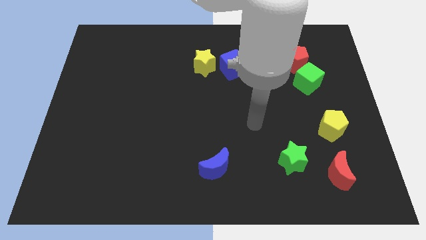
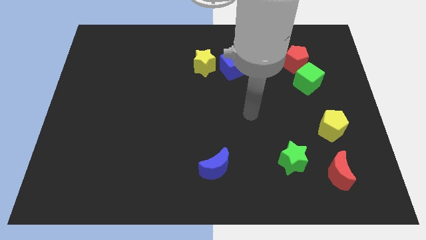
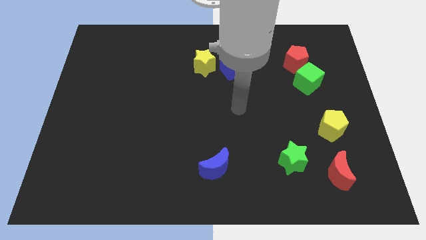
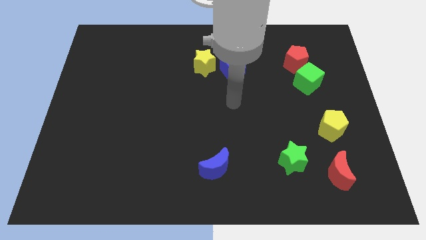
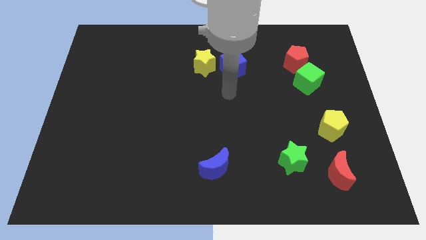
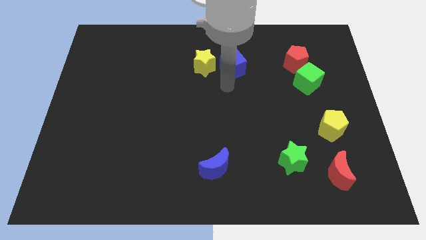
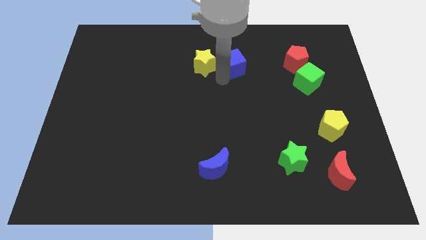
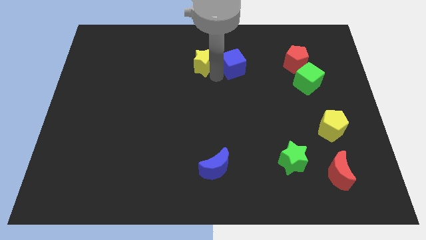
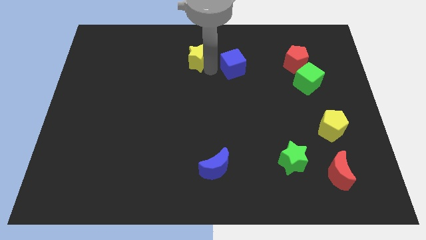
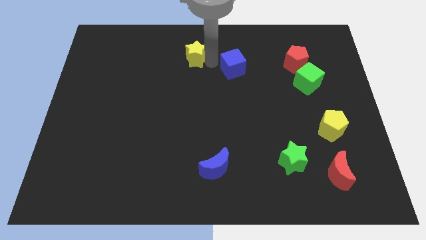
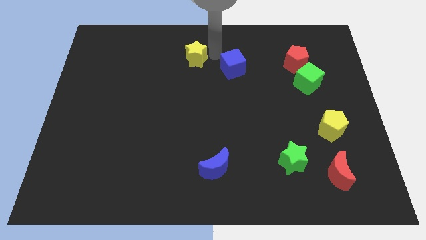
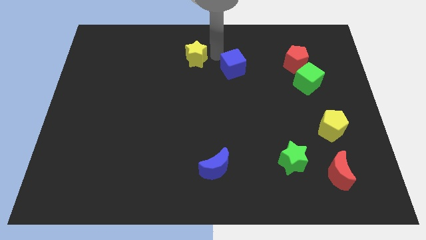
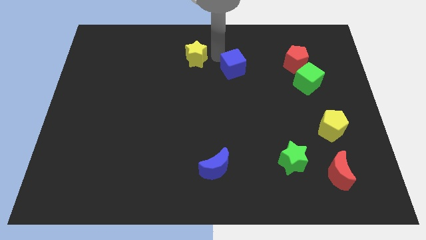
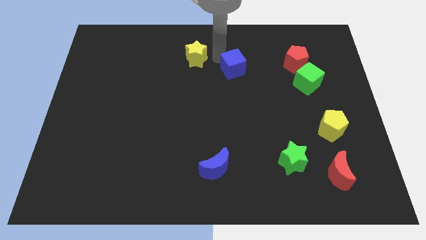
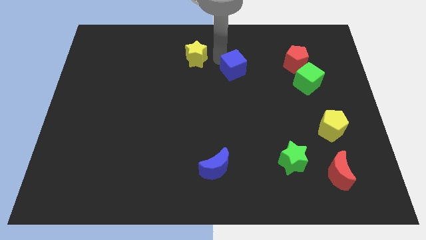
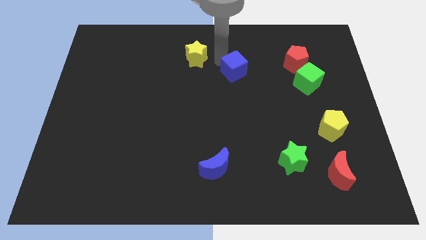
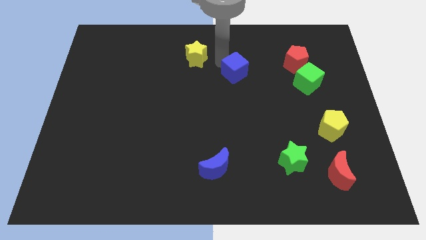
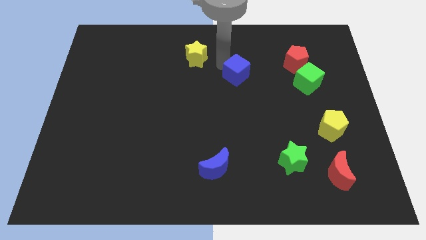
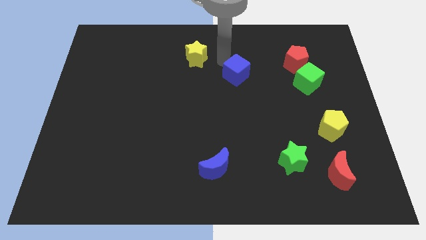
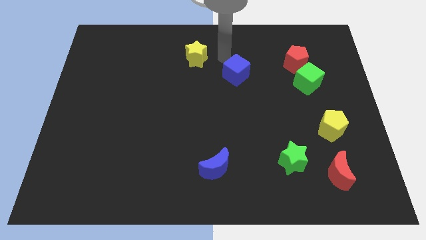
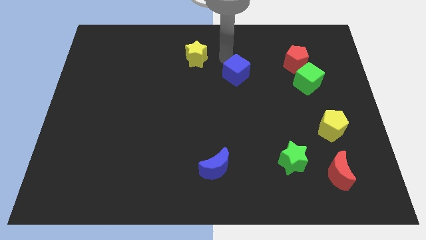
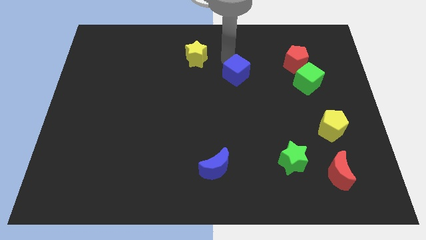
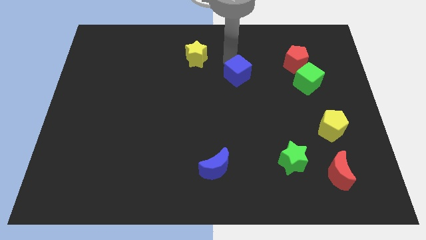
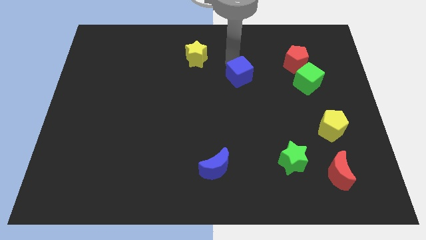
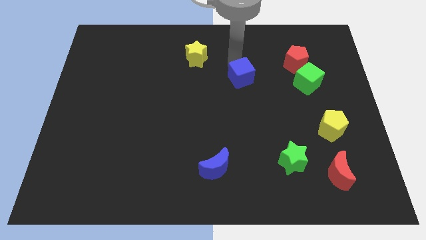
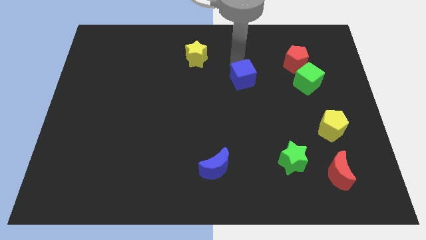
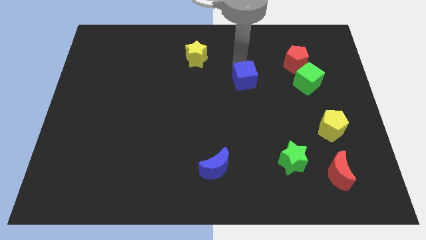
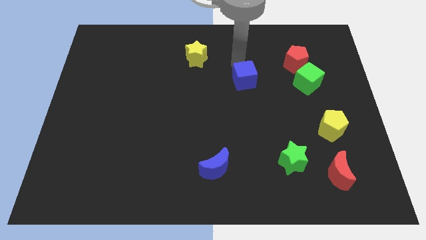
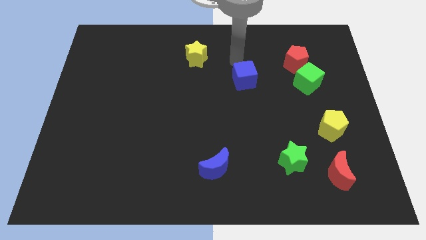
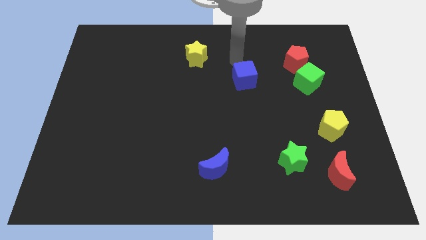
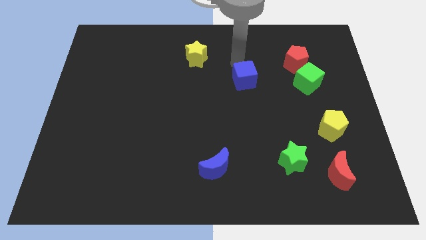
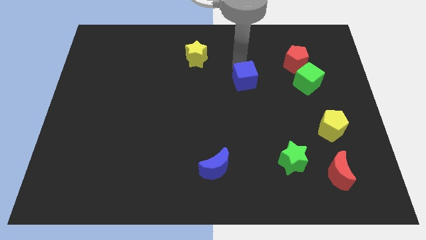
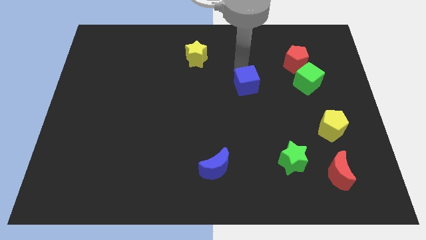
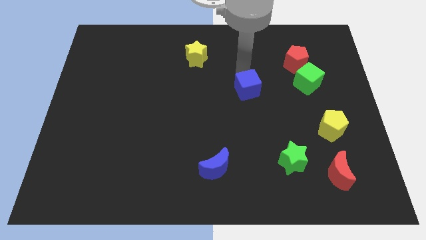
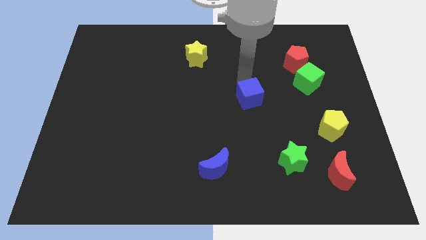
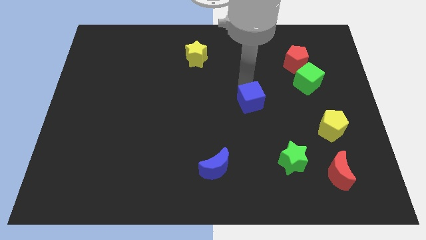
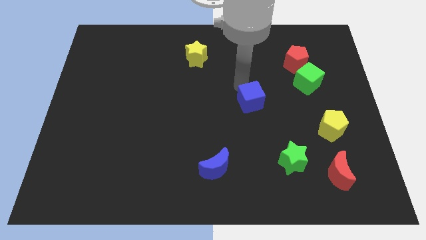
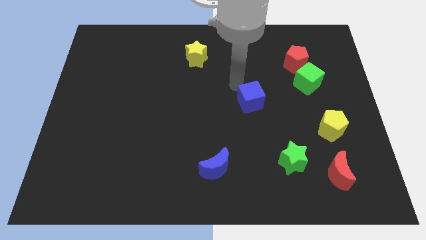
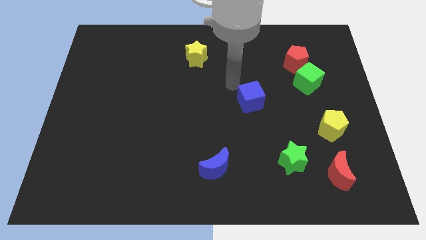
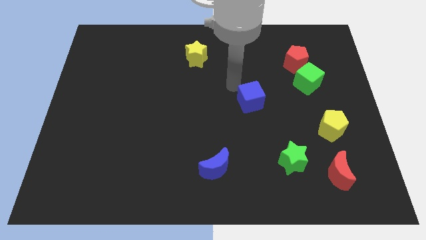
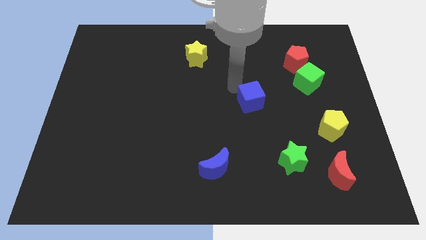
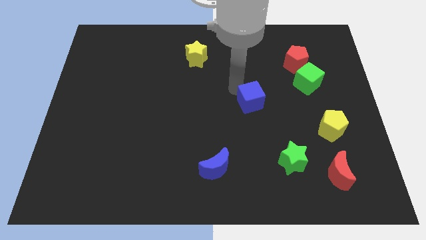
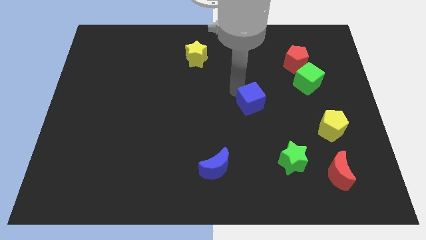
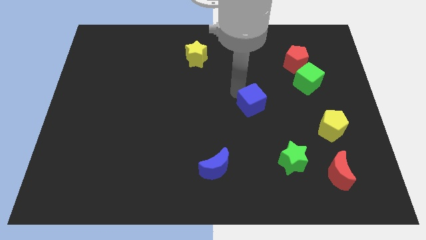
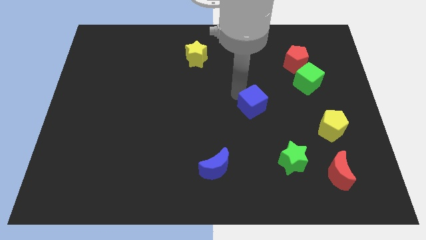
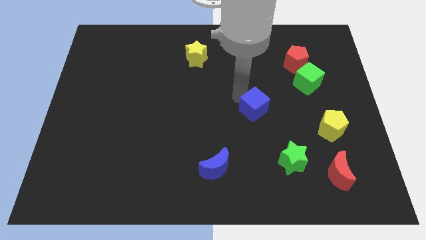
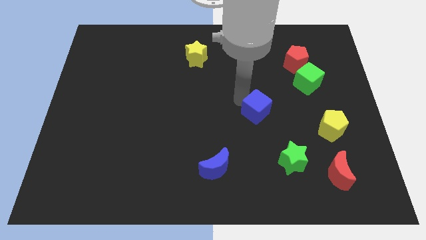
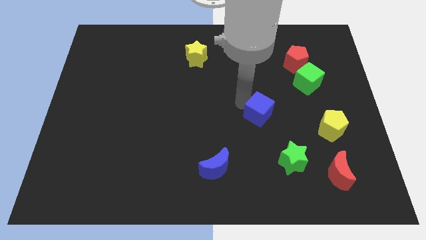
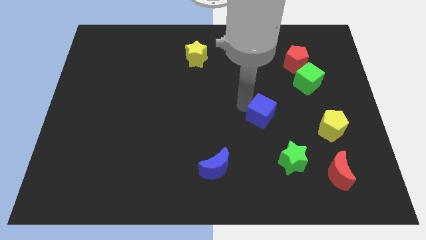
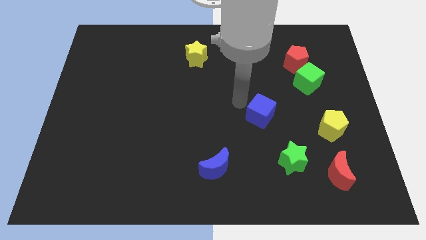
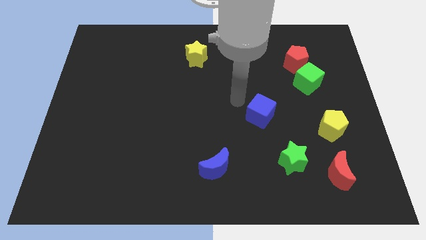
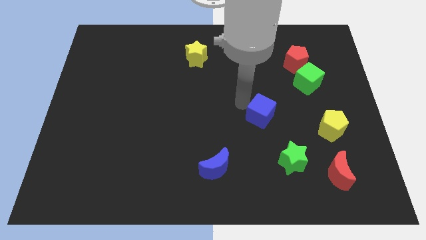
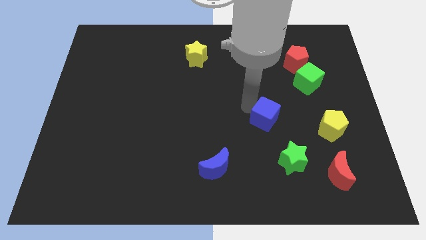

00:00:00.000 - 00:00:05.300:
slide the blue cube to the left side of the yellow pentagon

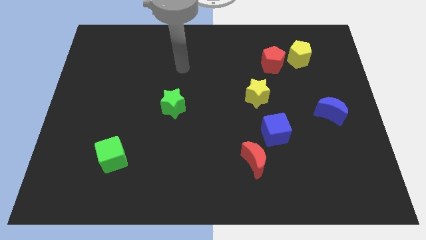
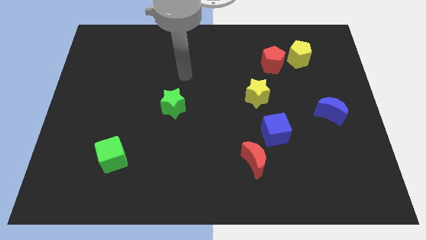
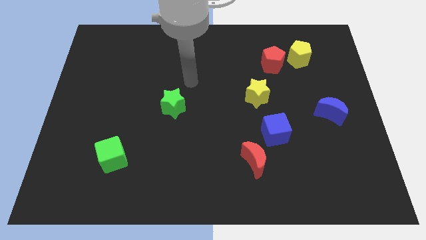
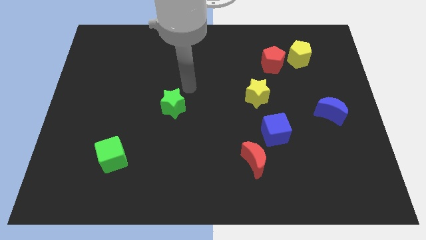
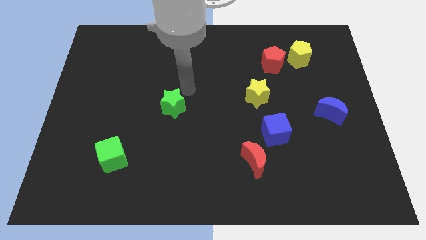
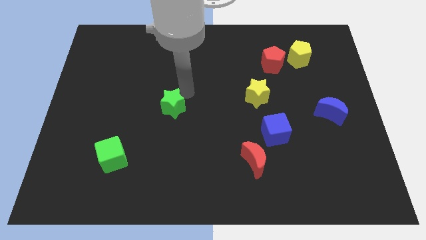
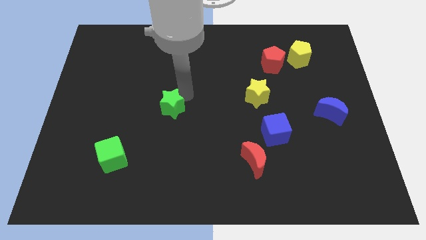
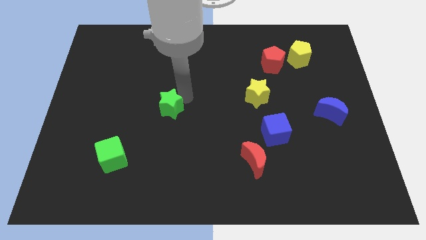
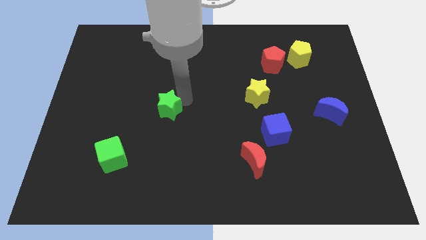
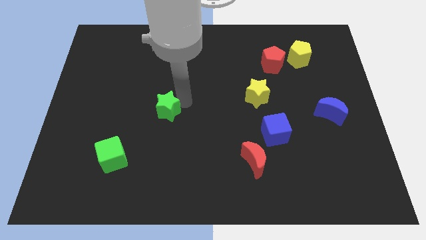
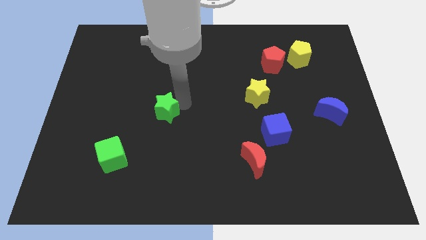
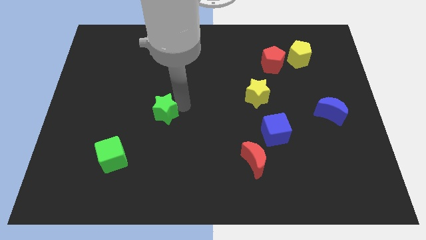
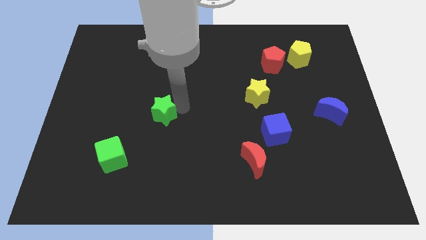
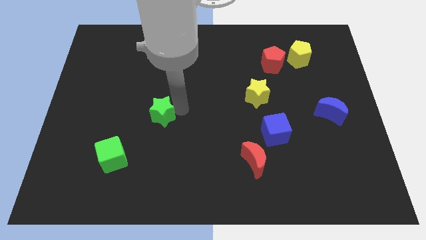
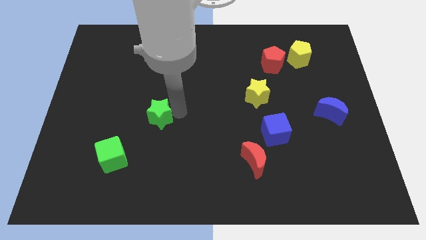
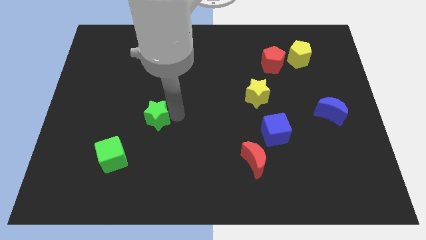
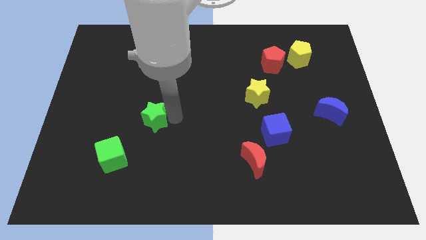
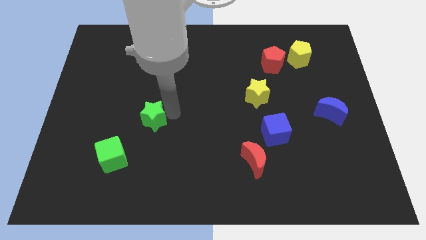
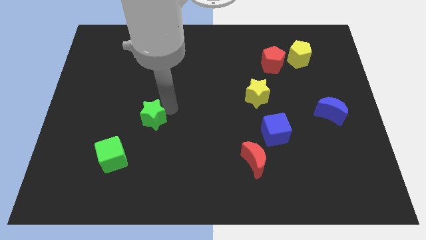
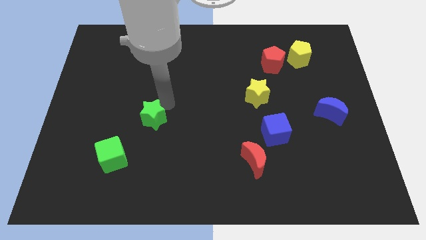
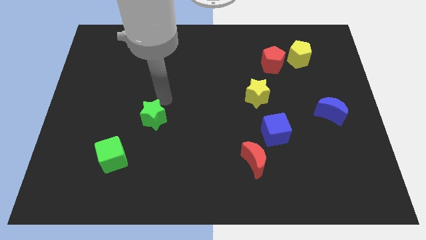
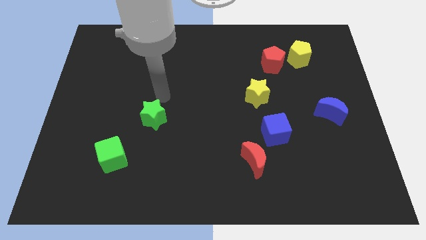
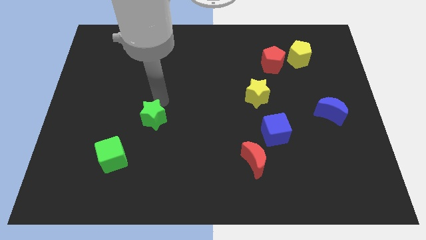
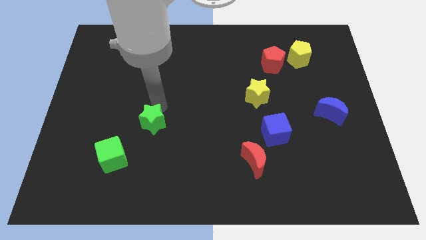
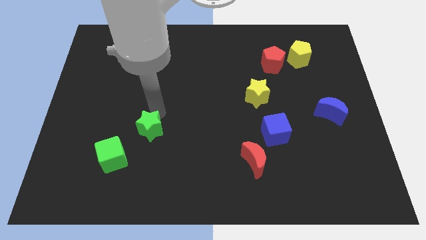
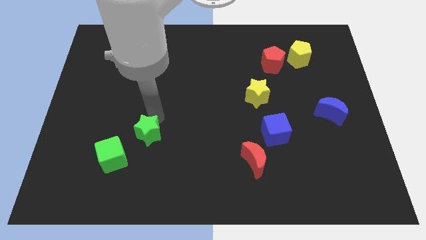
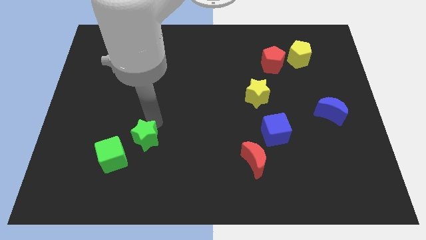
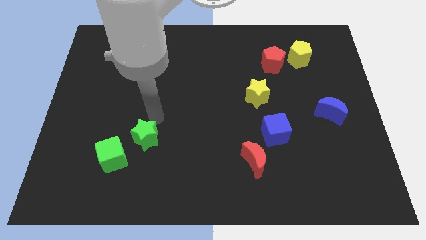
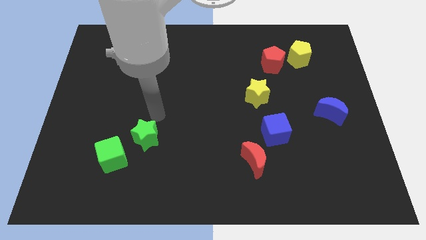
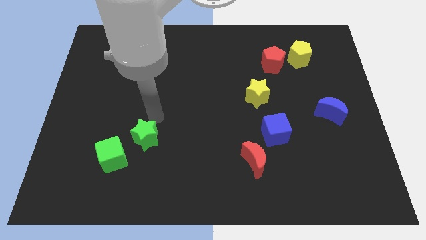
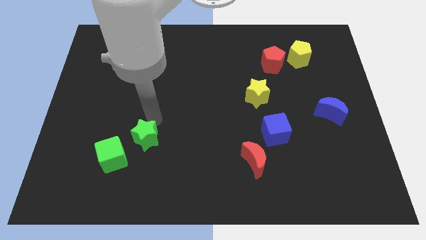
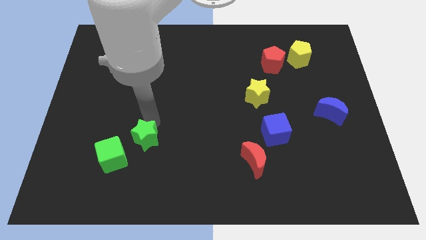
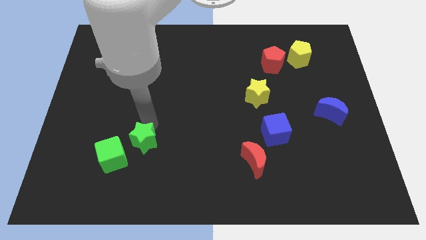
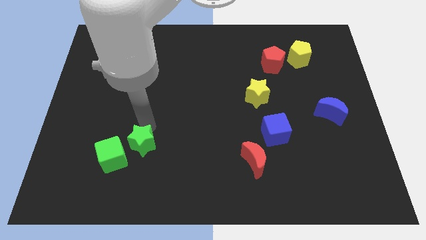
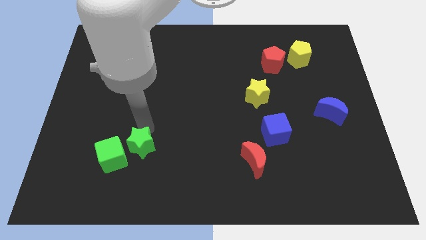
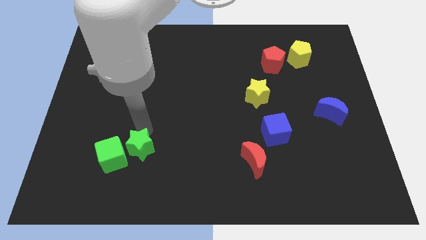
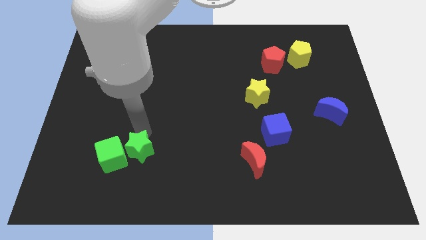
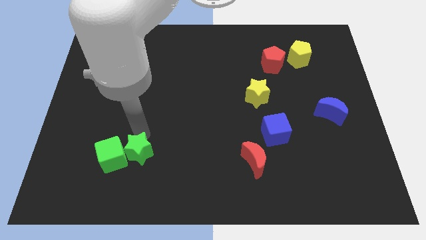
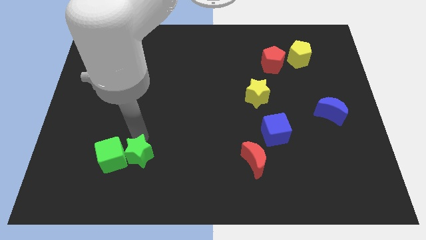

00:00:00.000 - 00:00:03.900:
push the green star diagonally down and to the right of the green cube
